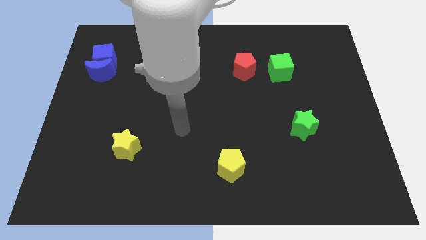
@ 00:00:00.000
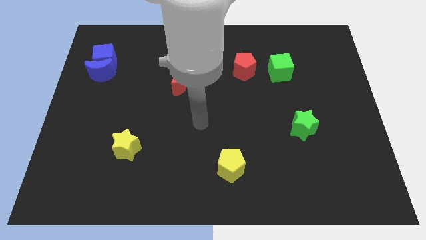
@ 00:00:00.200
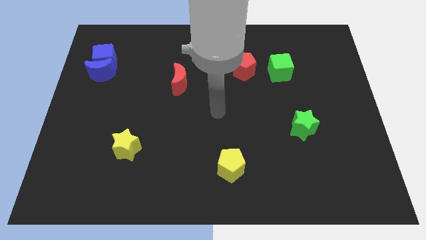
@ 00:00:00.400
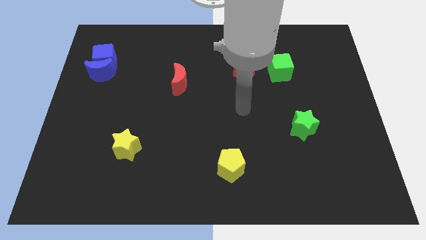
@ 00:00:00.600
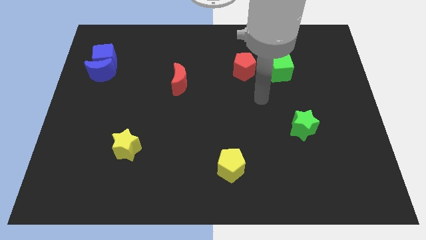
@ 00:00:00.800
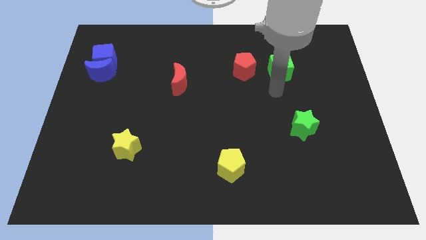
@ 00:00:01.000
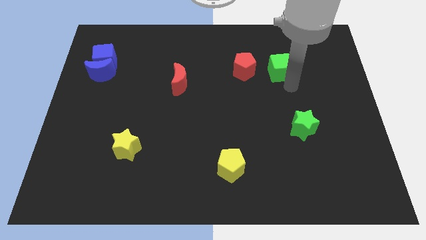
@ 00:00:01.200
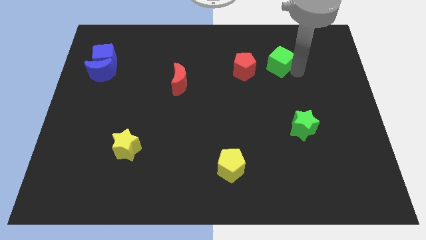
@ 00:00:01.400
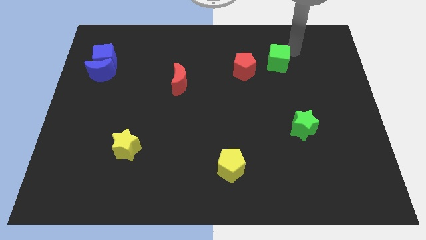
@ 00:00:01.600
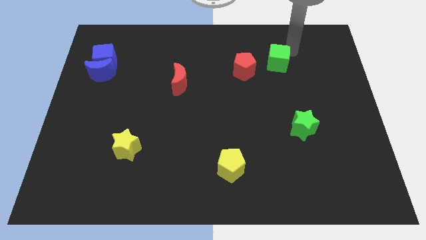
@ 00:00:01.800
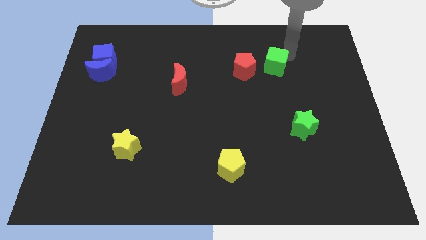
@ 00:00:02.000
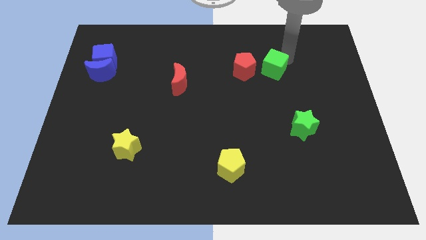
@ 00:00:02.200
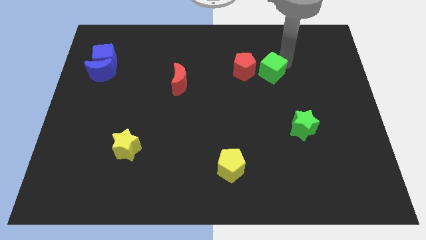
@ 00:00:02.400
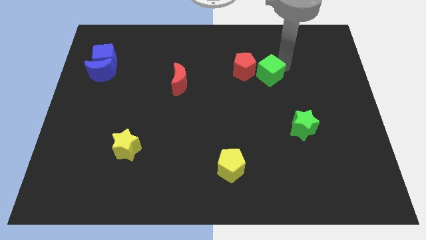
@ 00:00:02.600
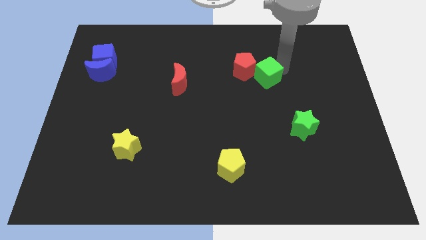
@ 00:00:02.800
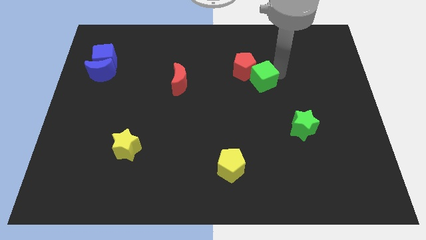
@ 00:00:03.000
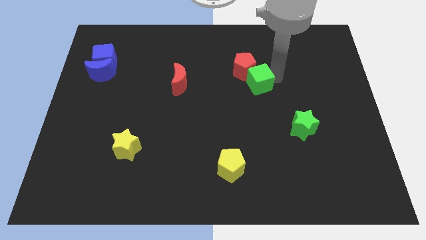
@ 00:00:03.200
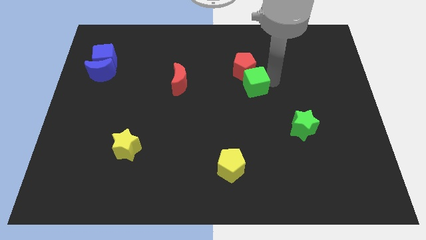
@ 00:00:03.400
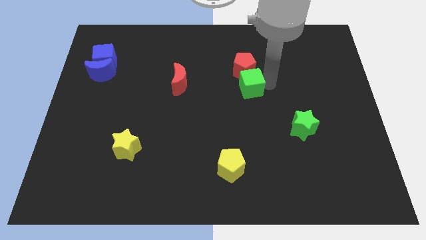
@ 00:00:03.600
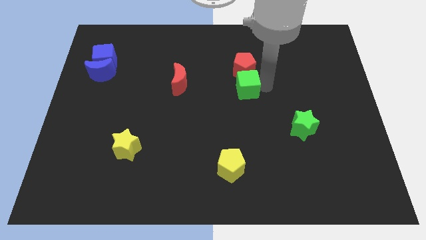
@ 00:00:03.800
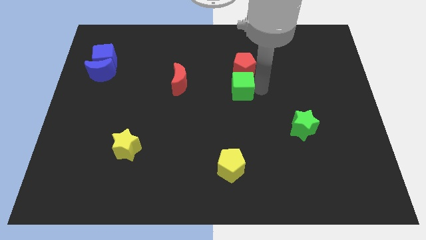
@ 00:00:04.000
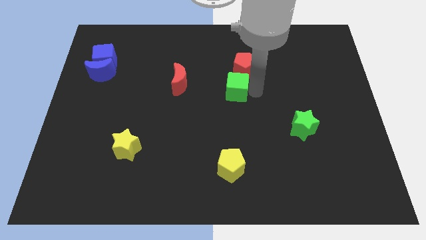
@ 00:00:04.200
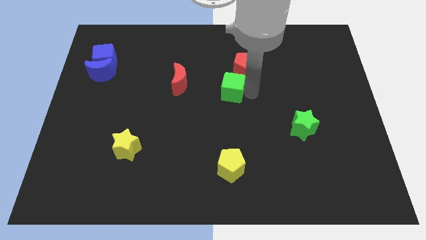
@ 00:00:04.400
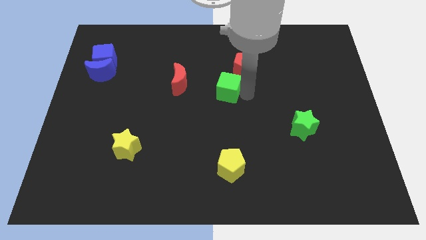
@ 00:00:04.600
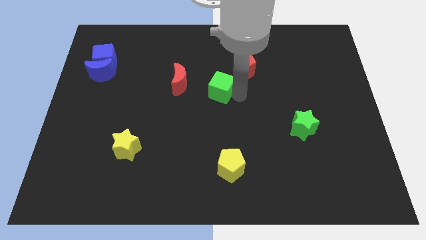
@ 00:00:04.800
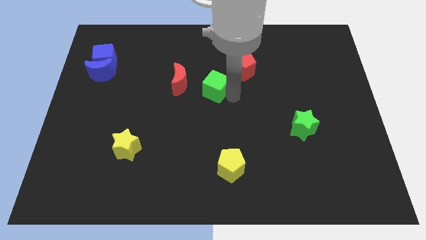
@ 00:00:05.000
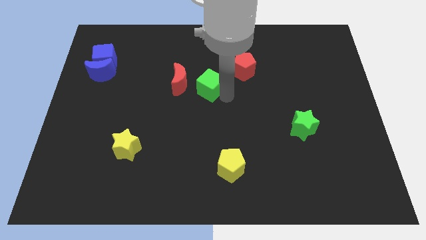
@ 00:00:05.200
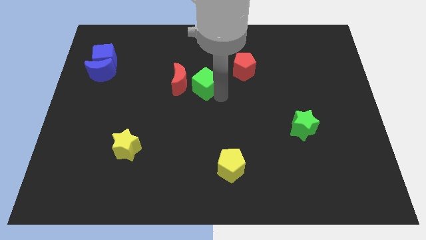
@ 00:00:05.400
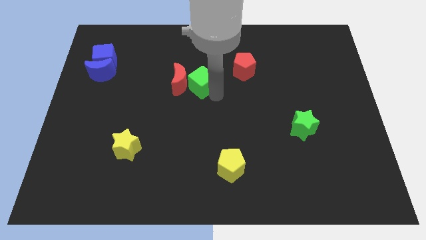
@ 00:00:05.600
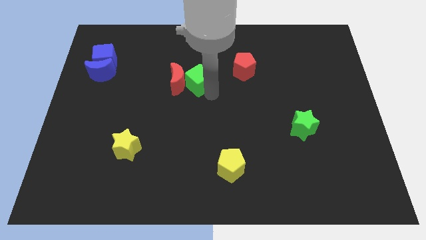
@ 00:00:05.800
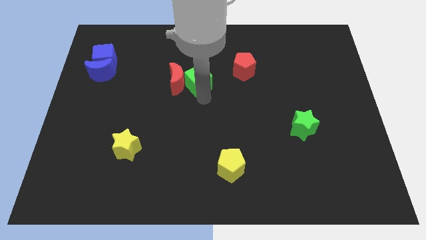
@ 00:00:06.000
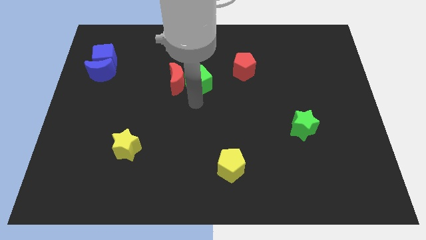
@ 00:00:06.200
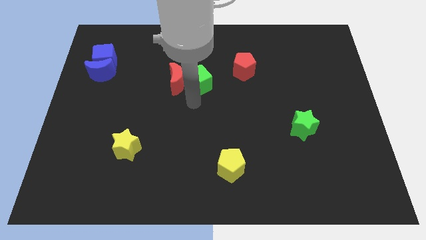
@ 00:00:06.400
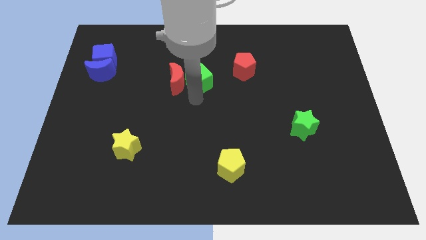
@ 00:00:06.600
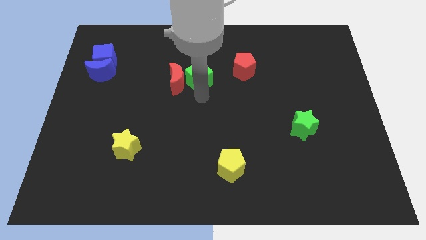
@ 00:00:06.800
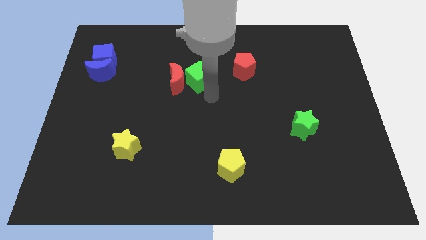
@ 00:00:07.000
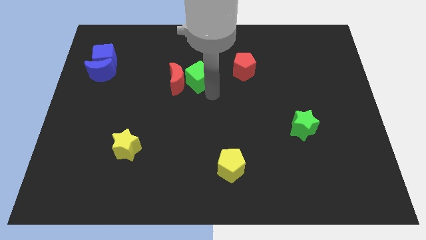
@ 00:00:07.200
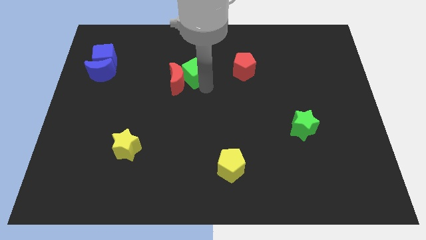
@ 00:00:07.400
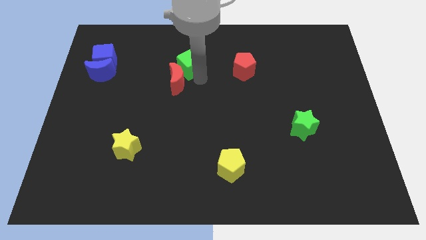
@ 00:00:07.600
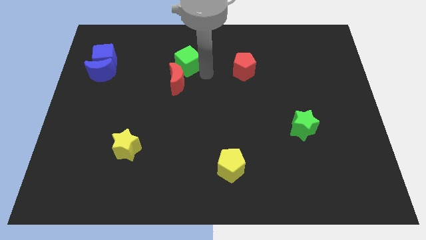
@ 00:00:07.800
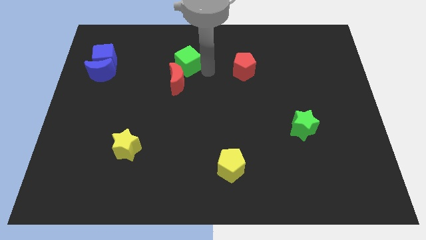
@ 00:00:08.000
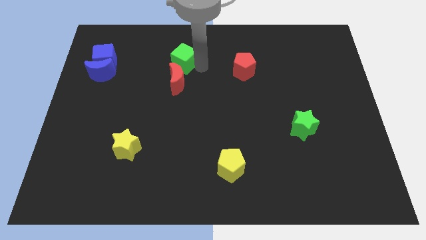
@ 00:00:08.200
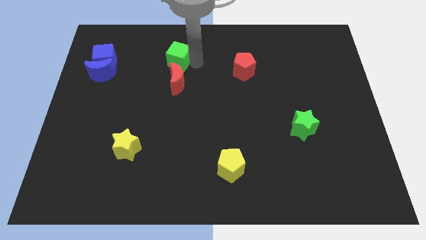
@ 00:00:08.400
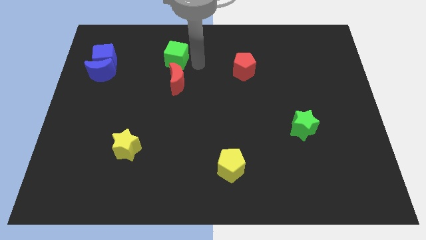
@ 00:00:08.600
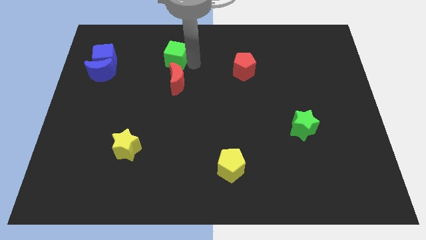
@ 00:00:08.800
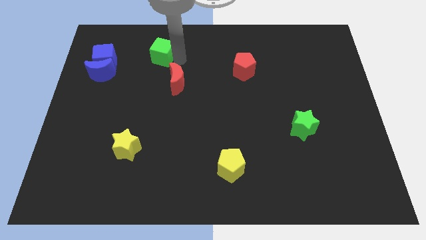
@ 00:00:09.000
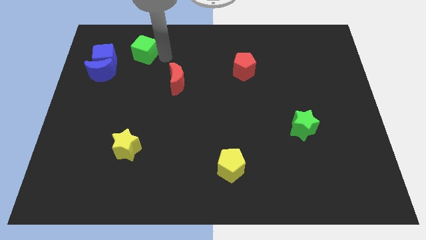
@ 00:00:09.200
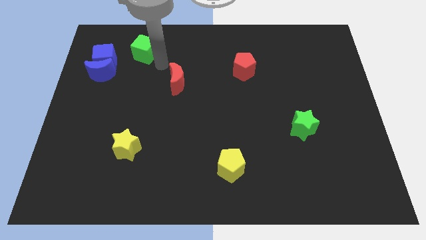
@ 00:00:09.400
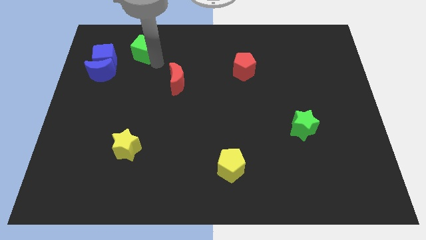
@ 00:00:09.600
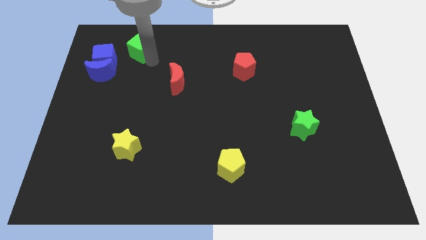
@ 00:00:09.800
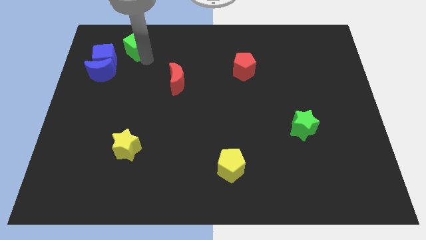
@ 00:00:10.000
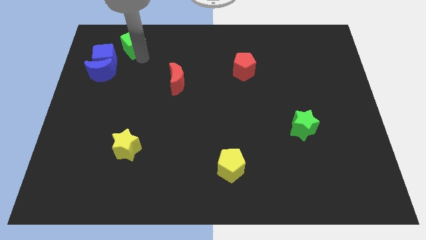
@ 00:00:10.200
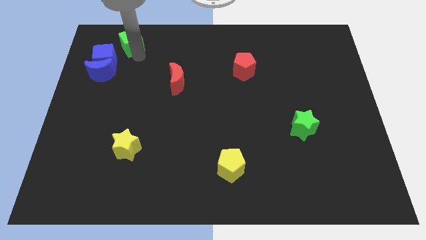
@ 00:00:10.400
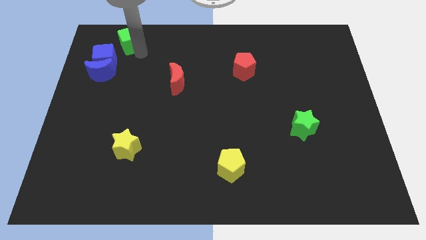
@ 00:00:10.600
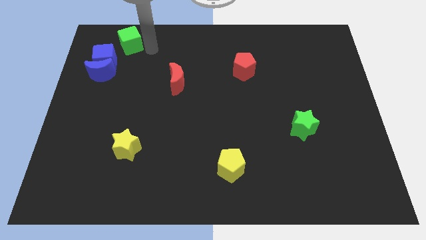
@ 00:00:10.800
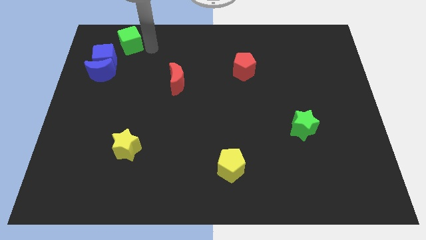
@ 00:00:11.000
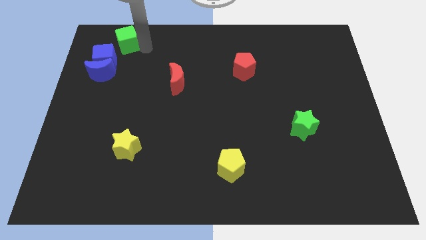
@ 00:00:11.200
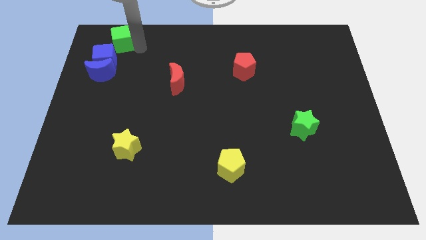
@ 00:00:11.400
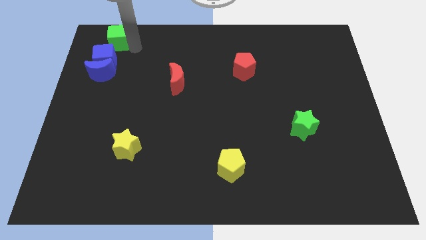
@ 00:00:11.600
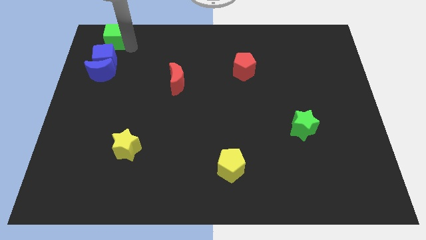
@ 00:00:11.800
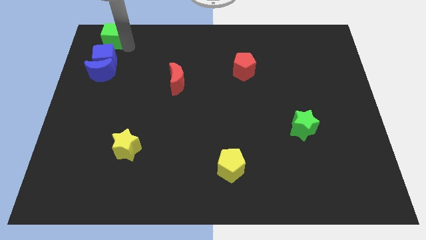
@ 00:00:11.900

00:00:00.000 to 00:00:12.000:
move the green cube to the top left corner
